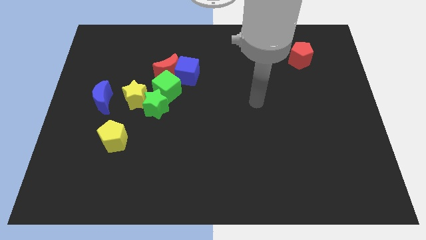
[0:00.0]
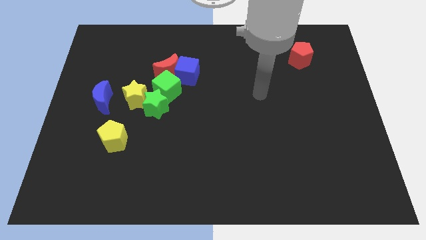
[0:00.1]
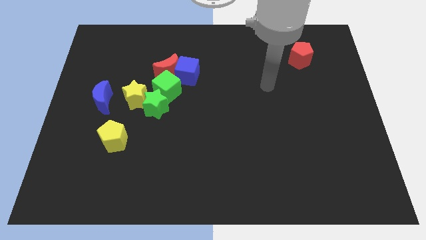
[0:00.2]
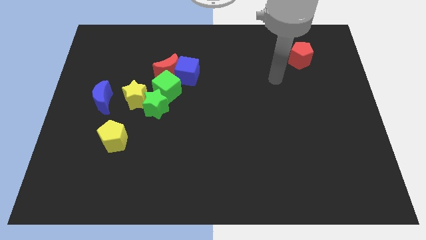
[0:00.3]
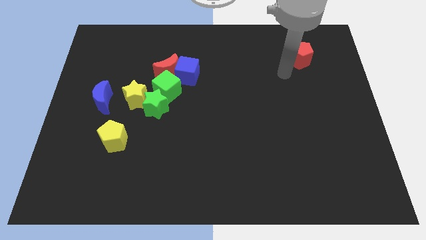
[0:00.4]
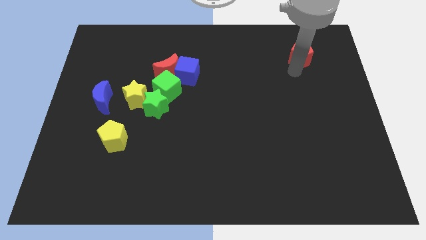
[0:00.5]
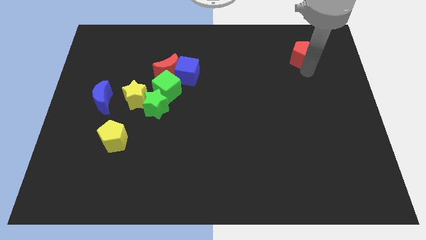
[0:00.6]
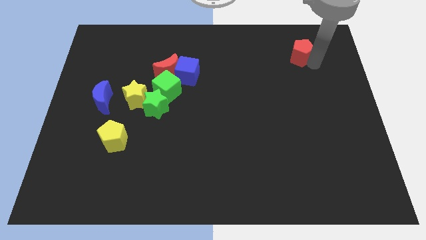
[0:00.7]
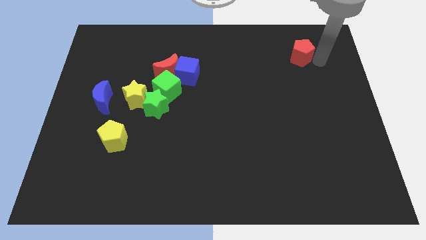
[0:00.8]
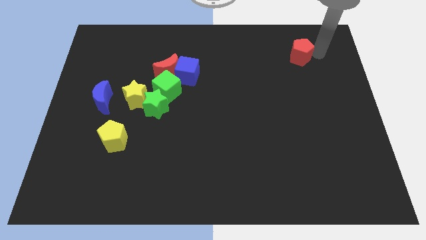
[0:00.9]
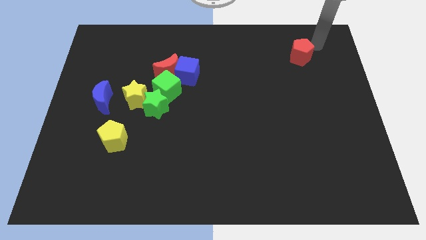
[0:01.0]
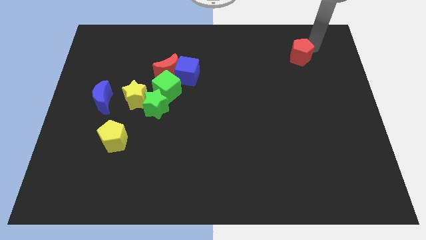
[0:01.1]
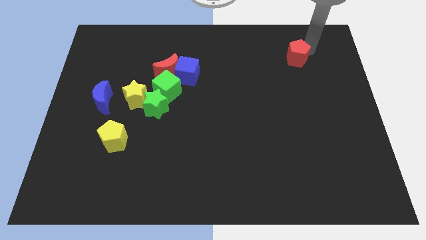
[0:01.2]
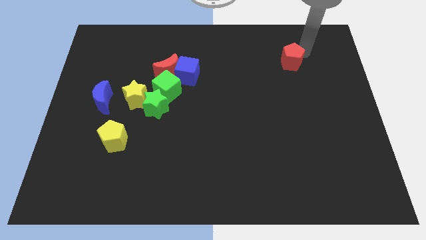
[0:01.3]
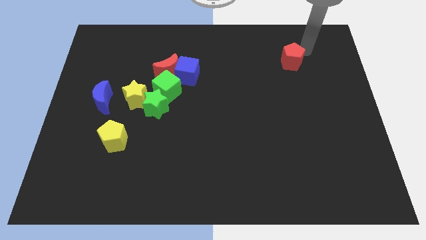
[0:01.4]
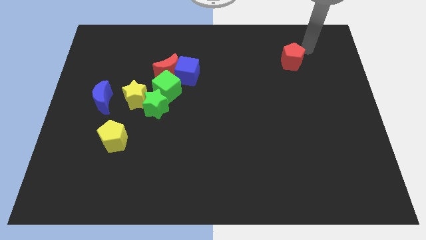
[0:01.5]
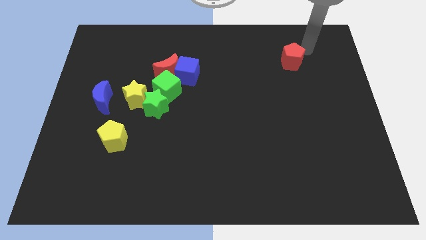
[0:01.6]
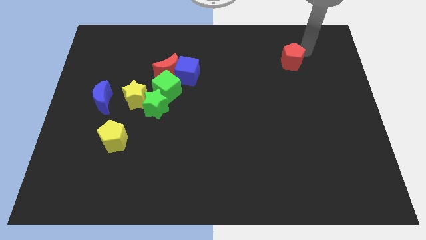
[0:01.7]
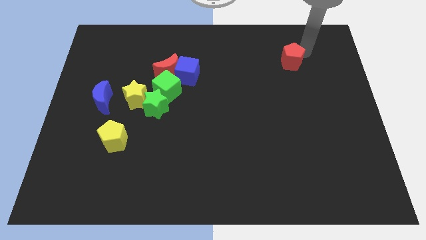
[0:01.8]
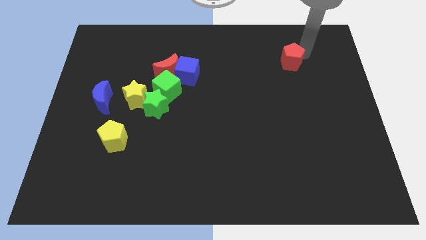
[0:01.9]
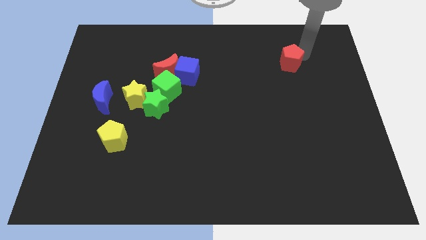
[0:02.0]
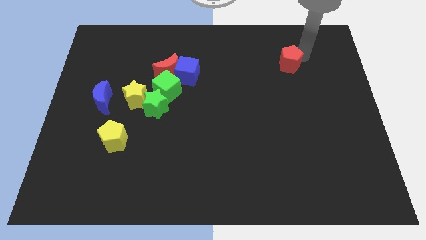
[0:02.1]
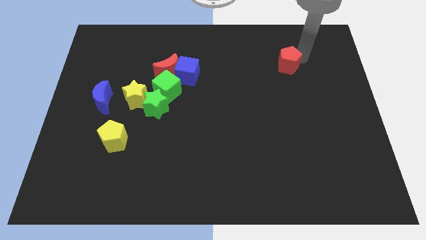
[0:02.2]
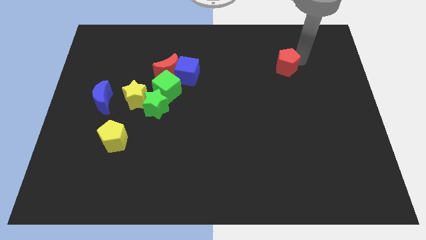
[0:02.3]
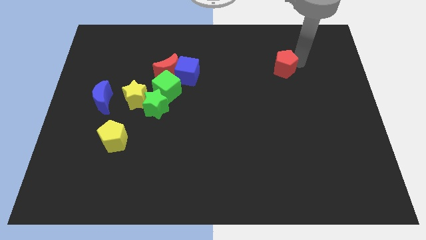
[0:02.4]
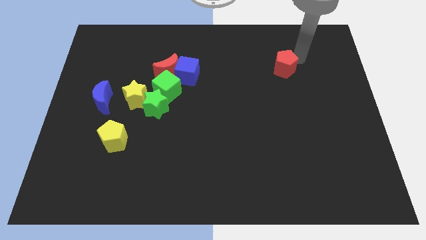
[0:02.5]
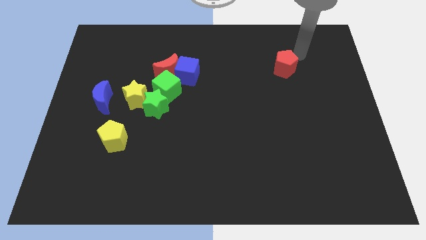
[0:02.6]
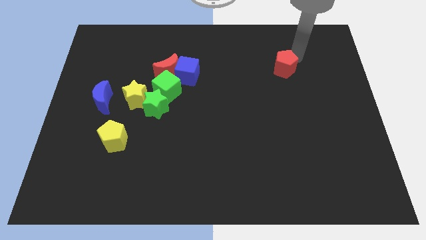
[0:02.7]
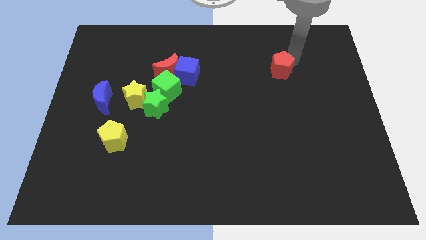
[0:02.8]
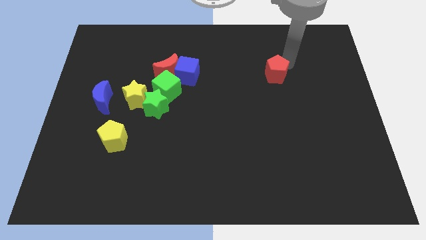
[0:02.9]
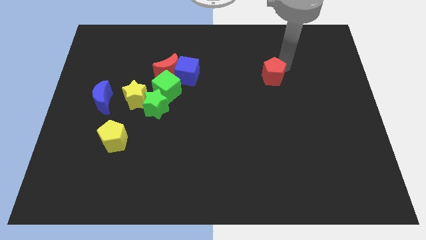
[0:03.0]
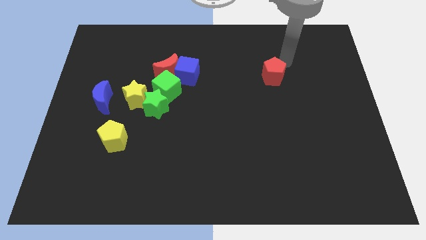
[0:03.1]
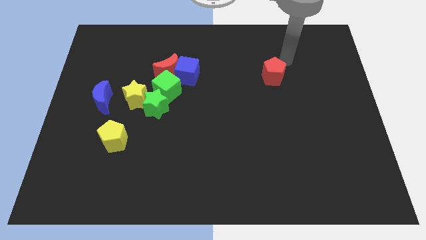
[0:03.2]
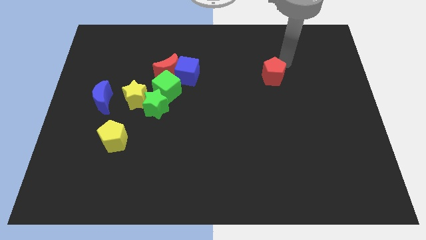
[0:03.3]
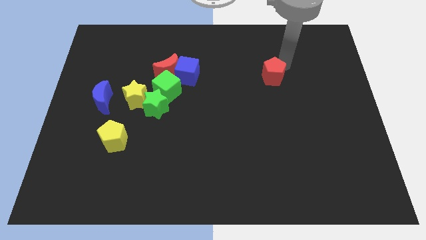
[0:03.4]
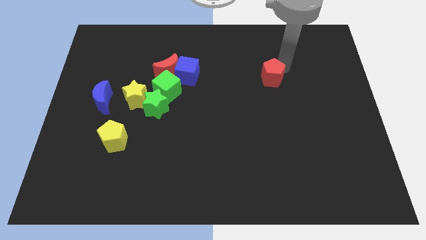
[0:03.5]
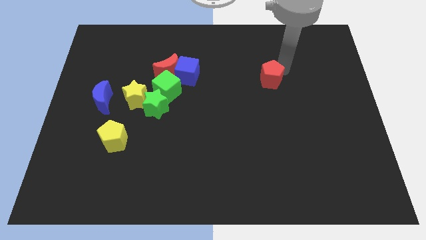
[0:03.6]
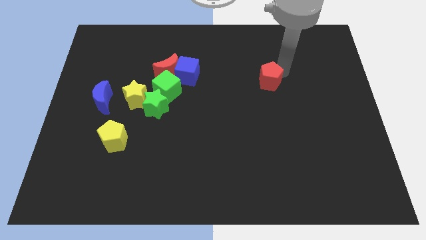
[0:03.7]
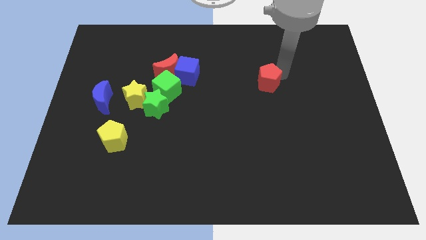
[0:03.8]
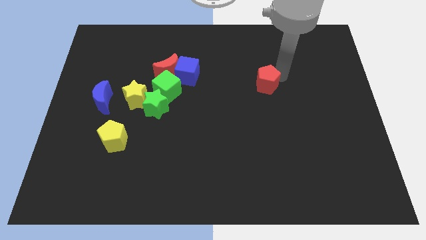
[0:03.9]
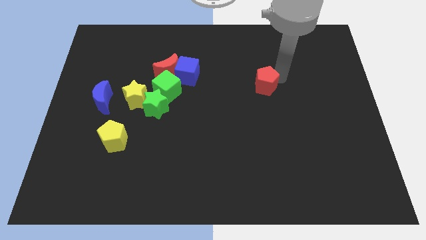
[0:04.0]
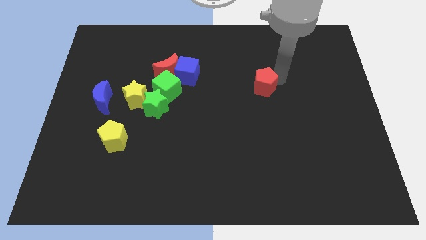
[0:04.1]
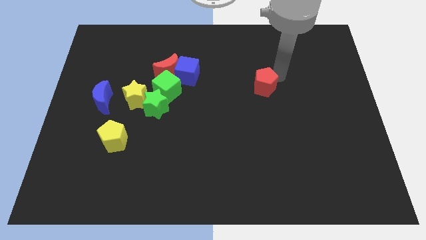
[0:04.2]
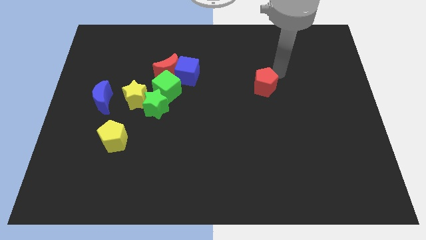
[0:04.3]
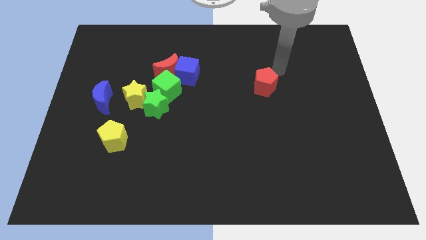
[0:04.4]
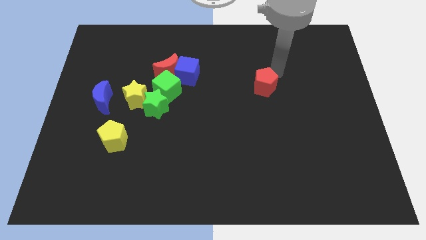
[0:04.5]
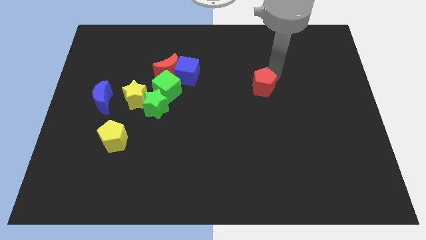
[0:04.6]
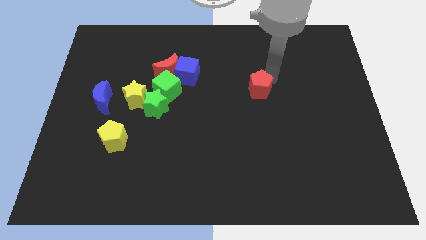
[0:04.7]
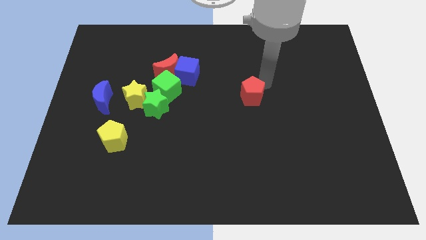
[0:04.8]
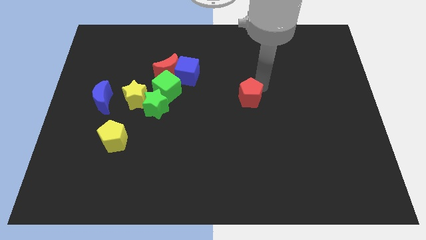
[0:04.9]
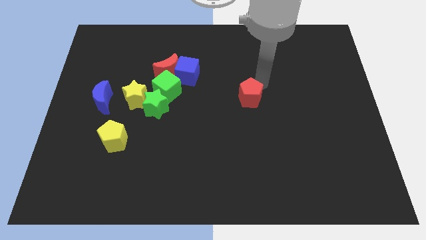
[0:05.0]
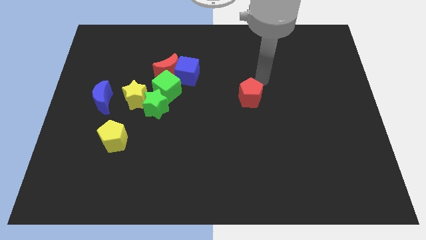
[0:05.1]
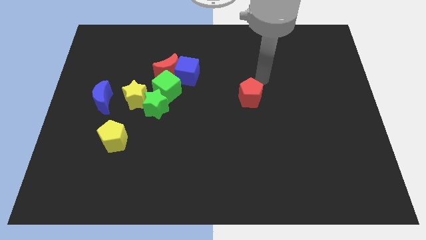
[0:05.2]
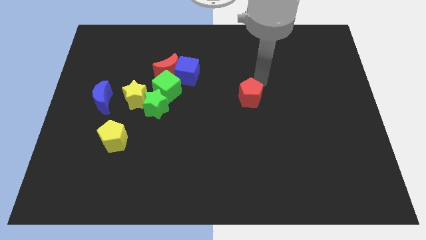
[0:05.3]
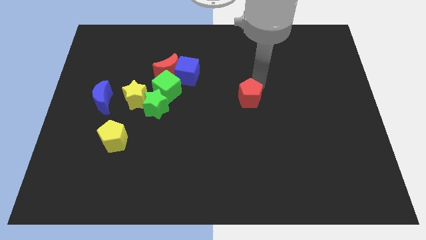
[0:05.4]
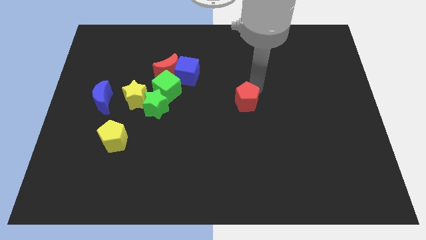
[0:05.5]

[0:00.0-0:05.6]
move the red pentagon down and to the left

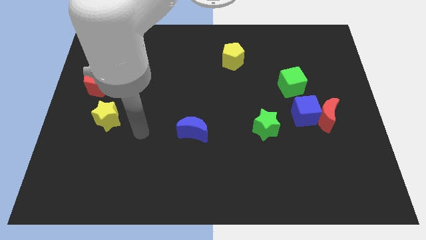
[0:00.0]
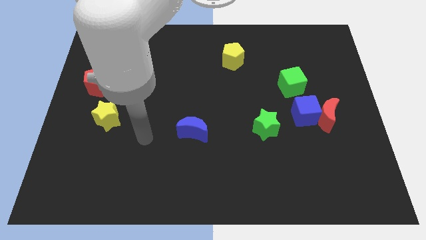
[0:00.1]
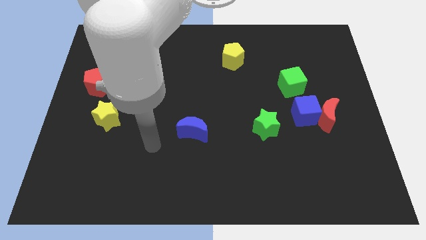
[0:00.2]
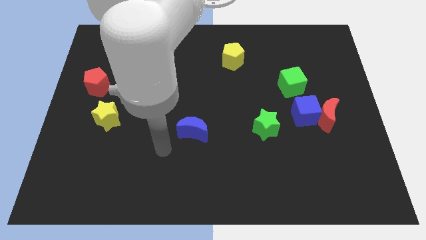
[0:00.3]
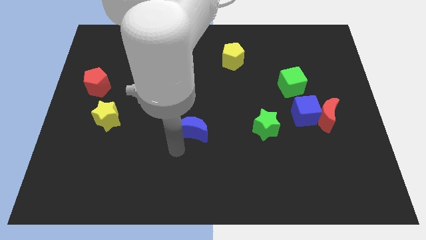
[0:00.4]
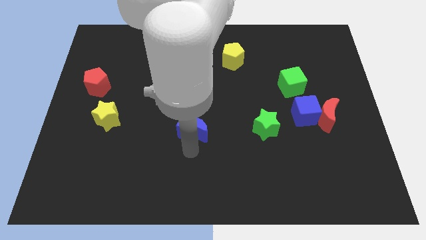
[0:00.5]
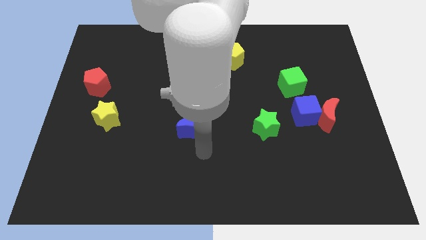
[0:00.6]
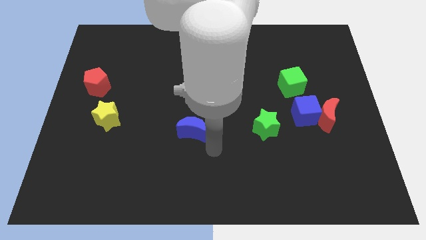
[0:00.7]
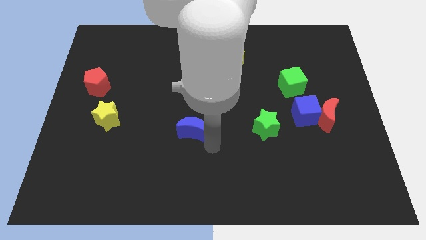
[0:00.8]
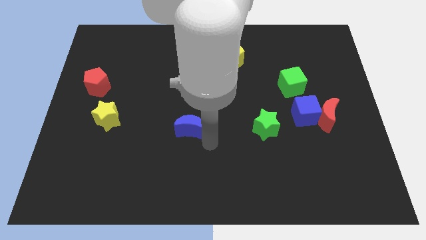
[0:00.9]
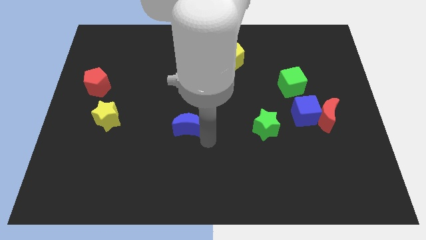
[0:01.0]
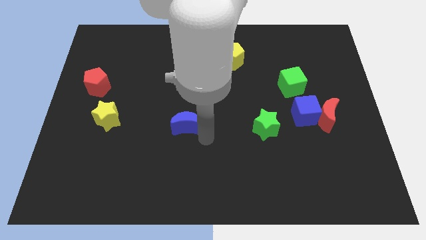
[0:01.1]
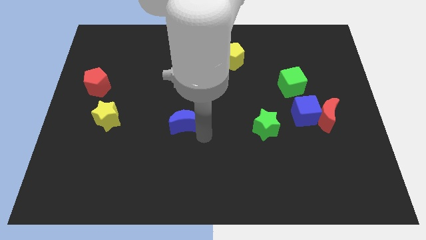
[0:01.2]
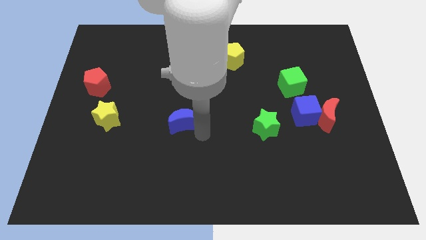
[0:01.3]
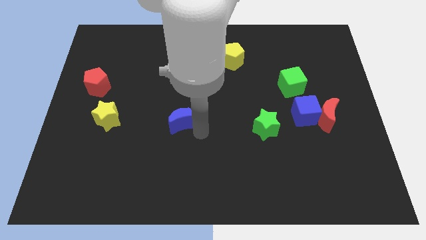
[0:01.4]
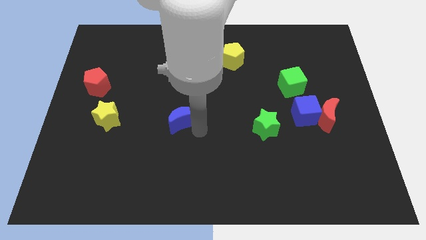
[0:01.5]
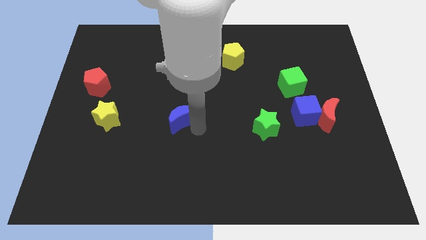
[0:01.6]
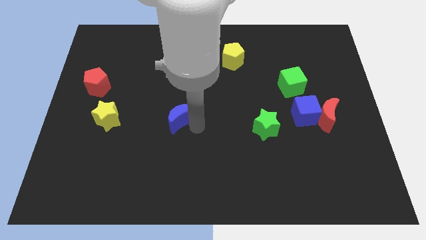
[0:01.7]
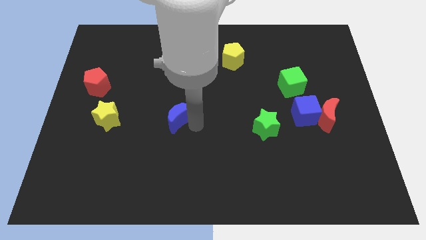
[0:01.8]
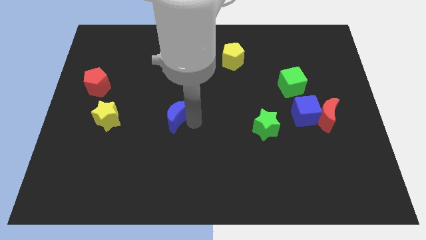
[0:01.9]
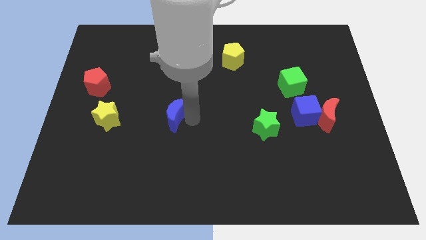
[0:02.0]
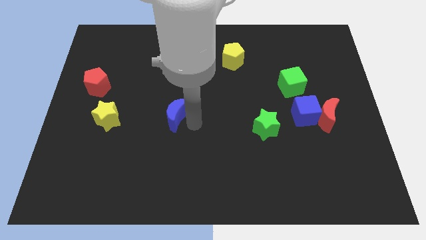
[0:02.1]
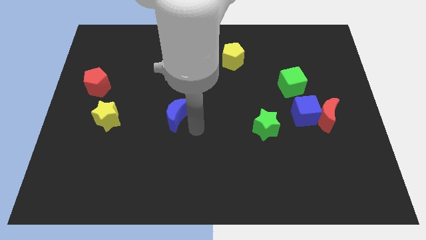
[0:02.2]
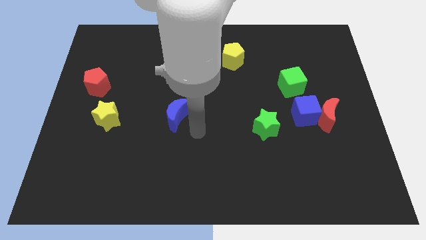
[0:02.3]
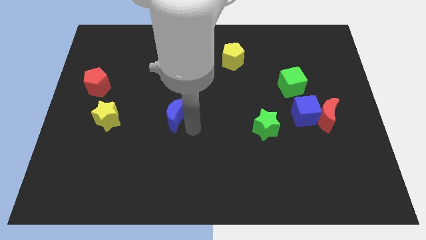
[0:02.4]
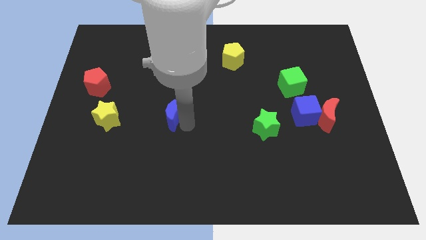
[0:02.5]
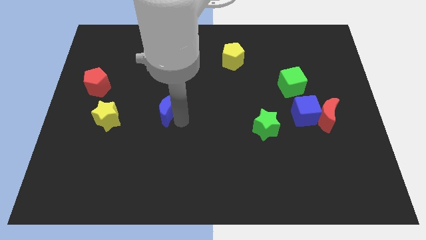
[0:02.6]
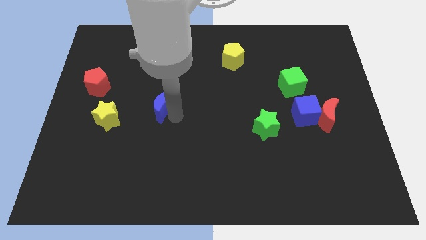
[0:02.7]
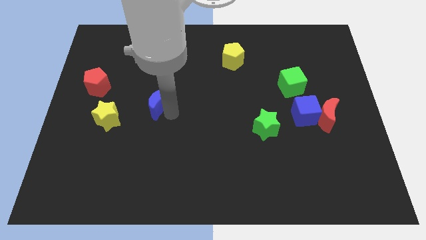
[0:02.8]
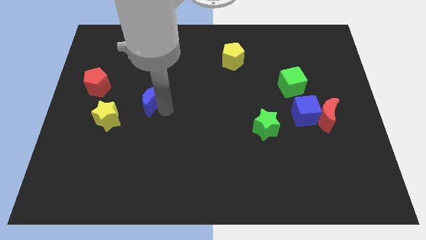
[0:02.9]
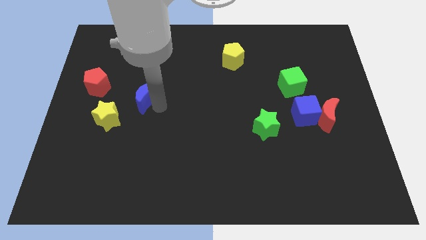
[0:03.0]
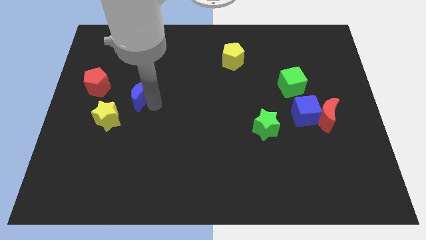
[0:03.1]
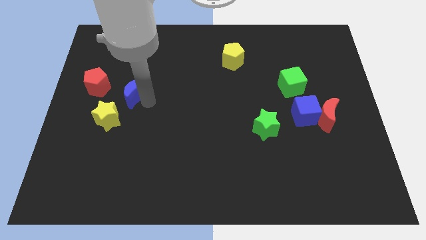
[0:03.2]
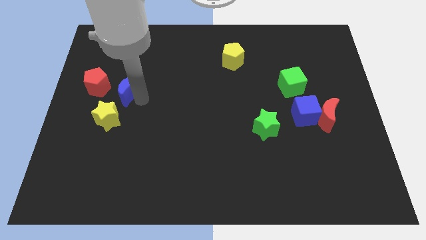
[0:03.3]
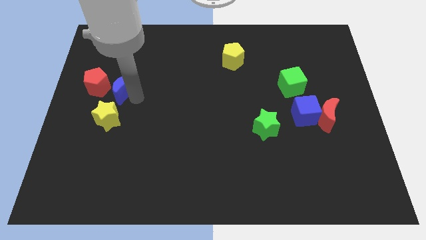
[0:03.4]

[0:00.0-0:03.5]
slide the blue moon diagonally up and left
